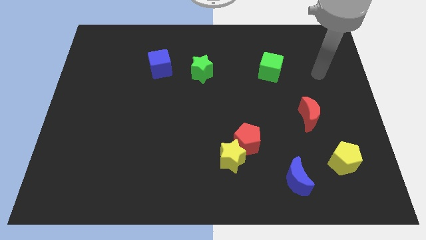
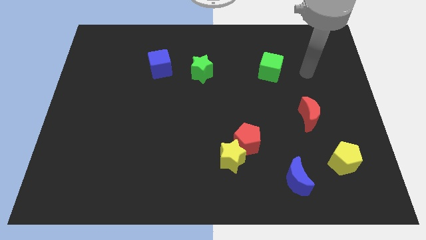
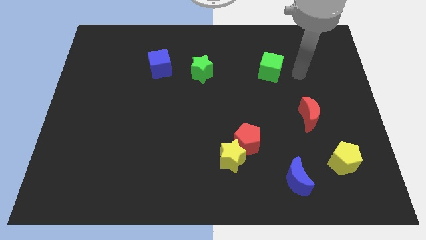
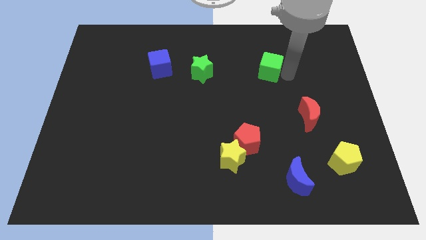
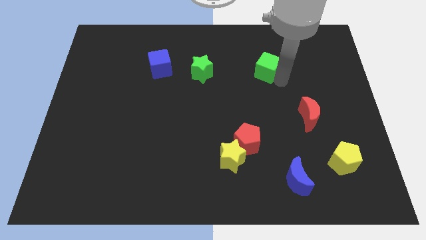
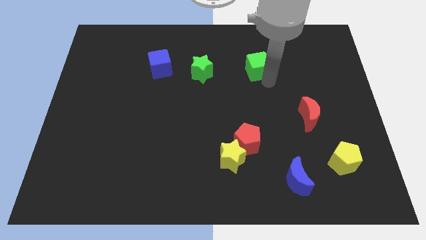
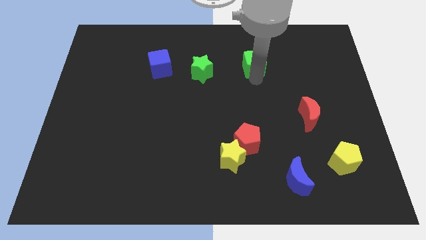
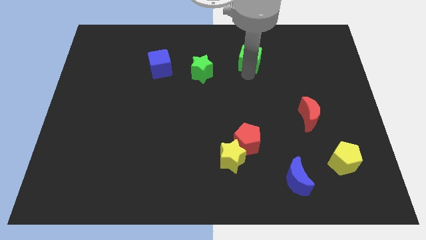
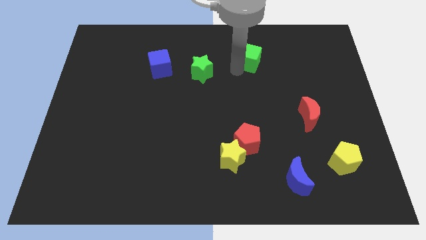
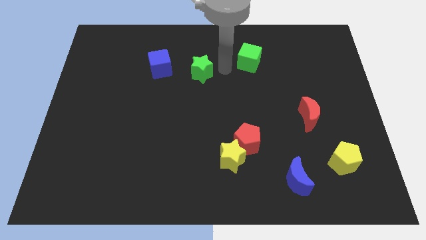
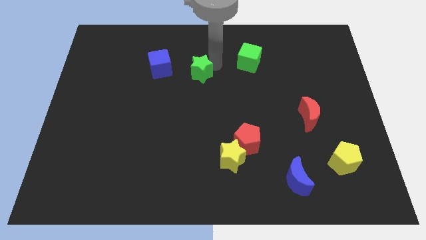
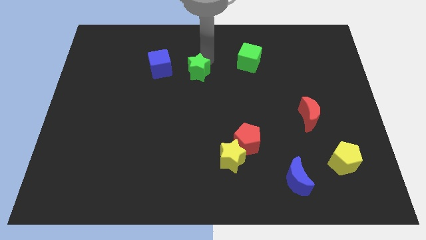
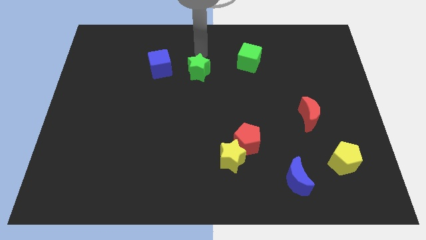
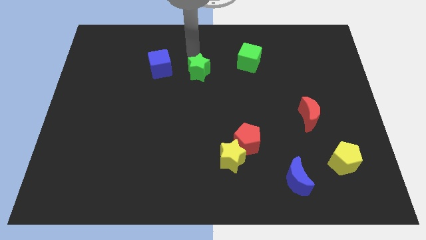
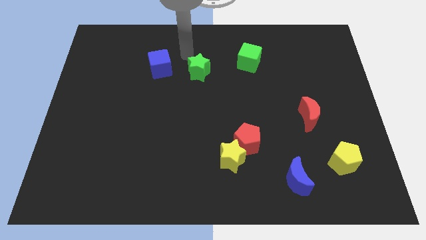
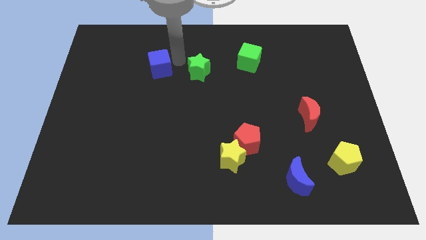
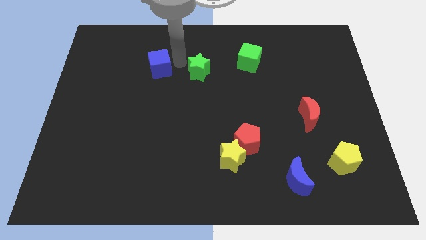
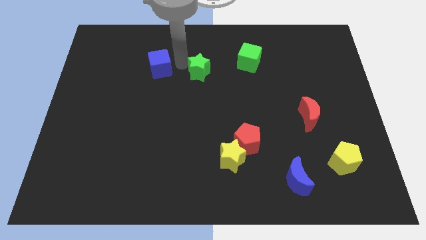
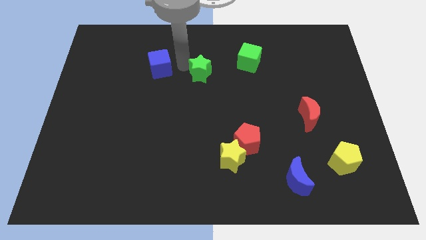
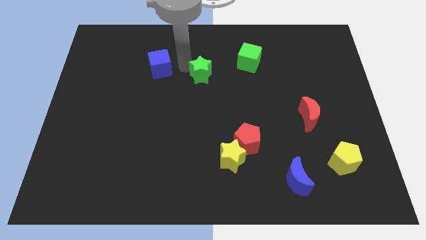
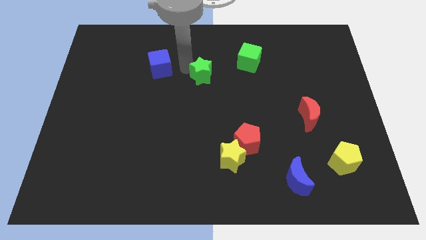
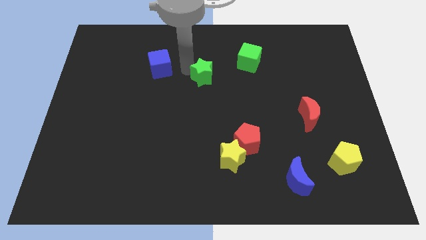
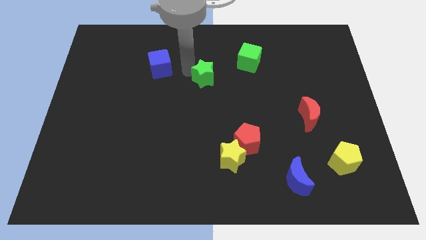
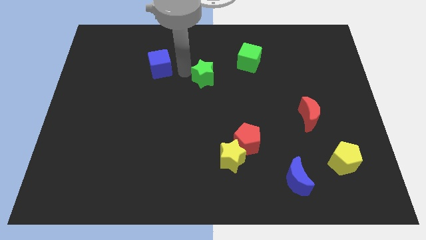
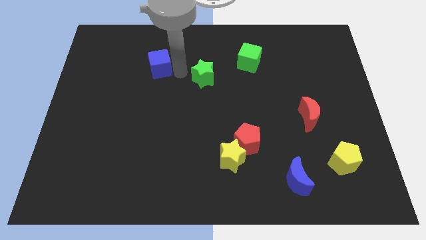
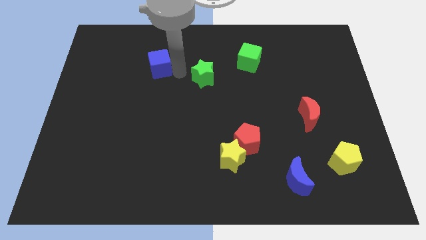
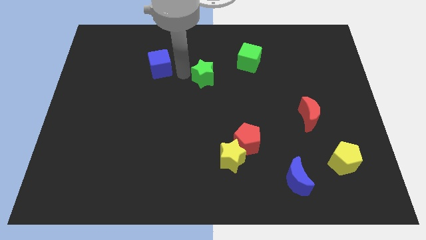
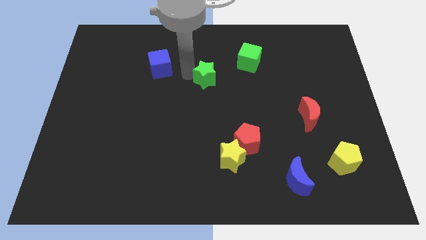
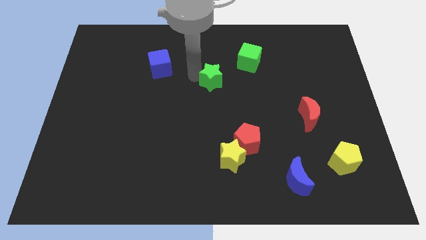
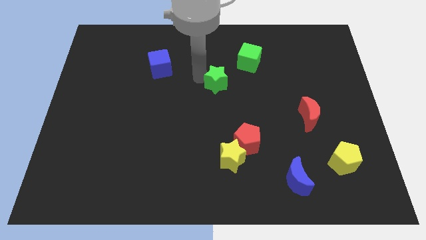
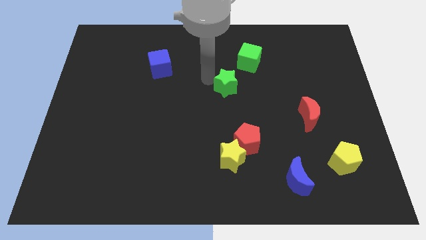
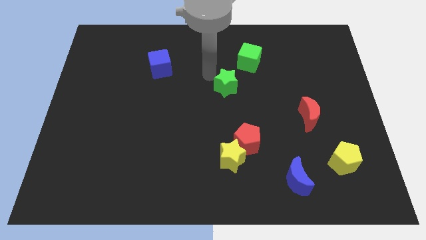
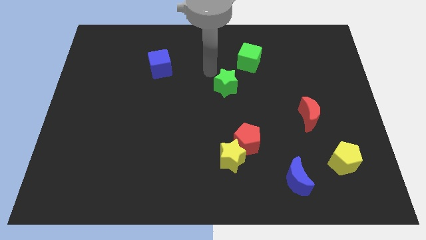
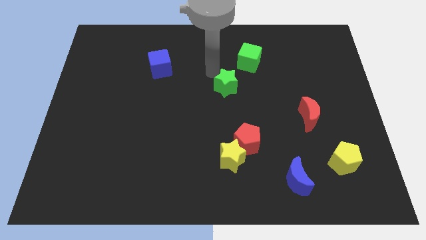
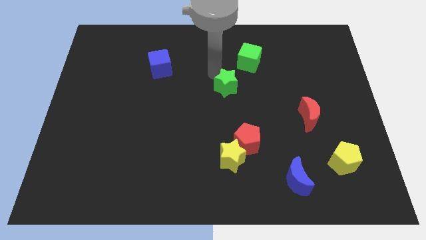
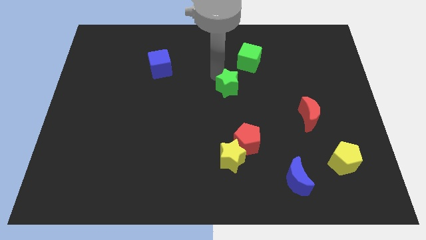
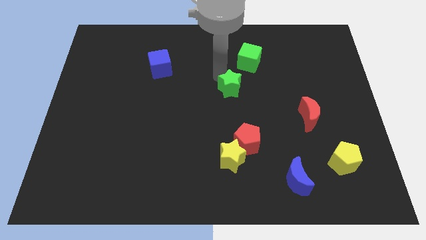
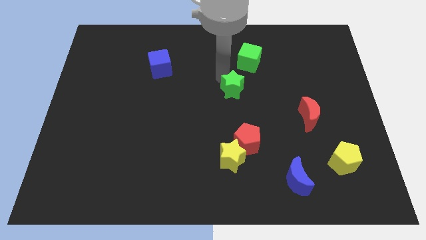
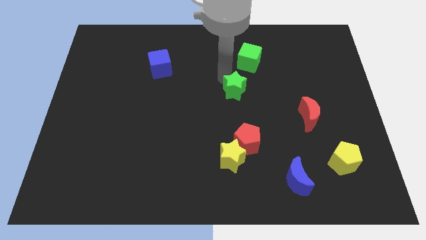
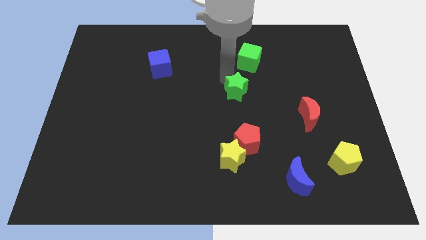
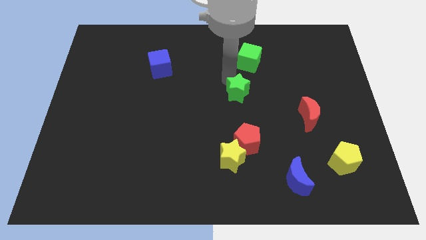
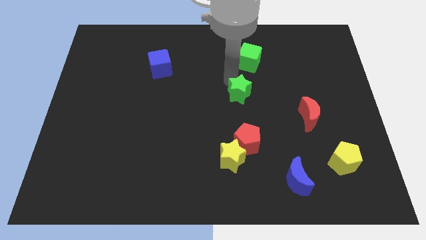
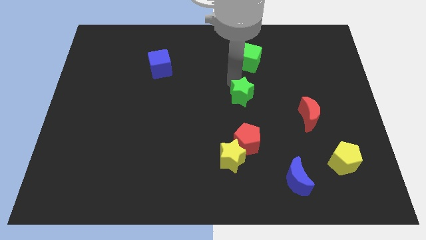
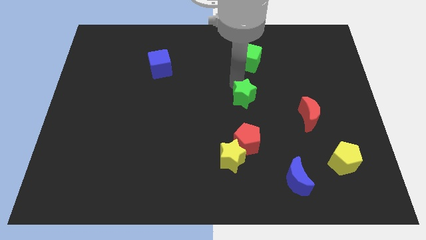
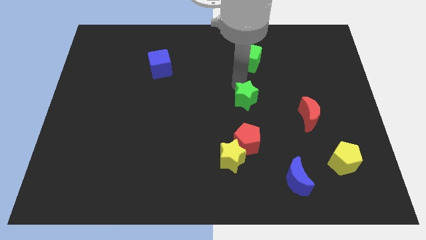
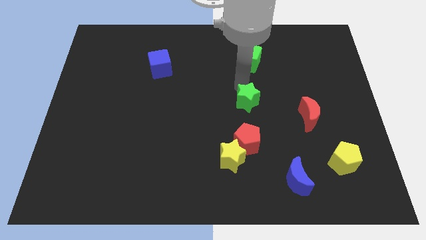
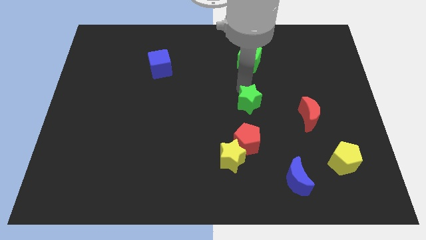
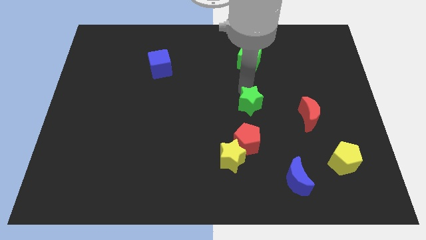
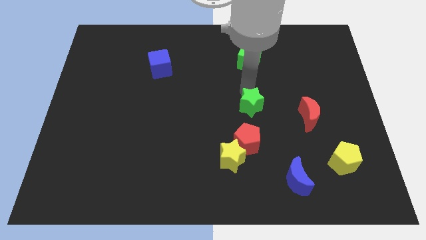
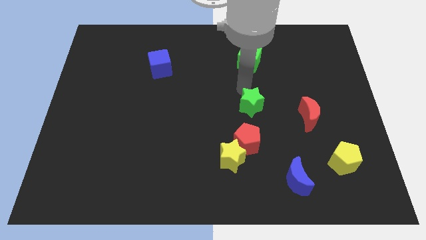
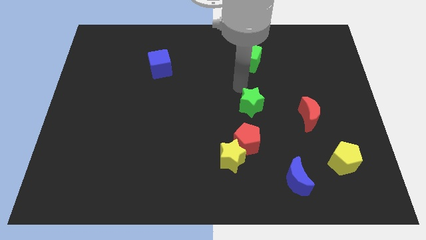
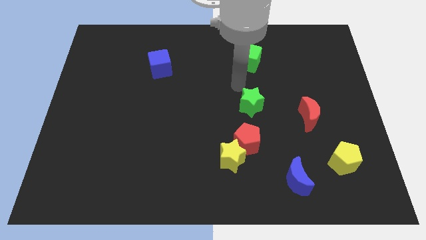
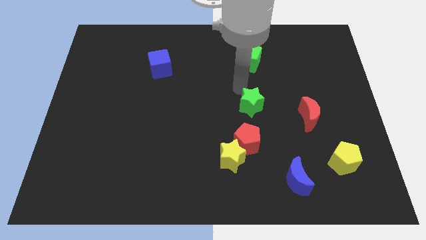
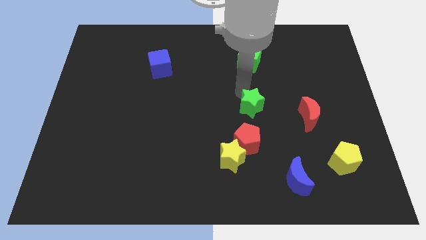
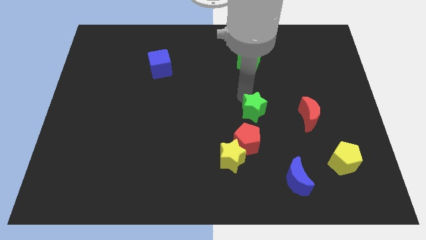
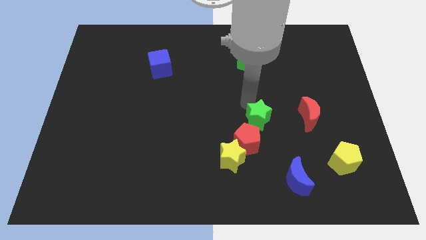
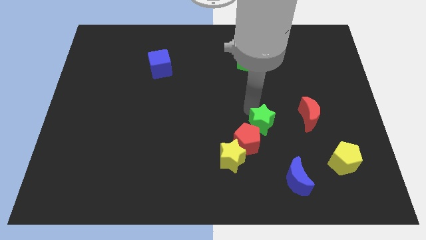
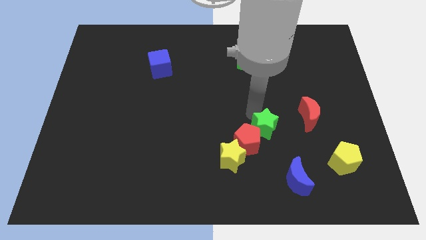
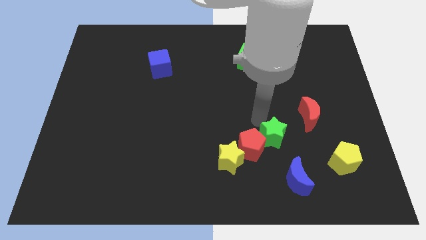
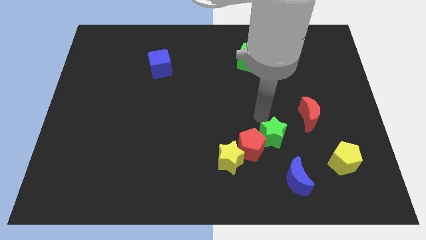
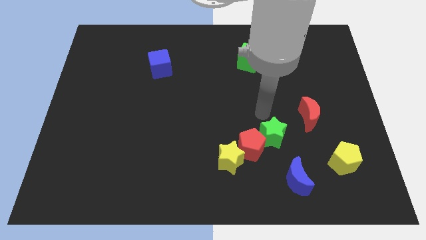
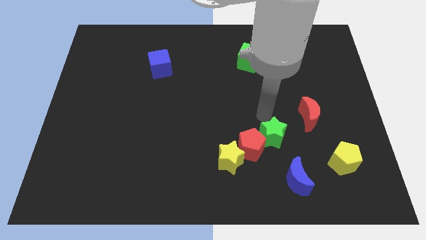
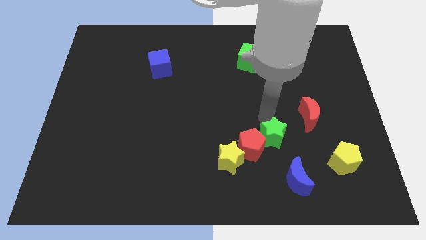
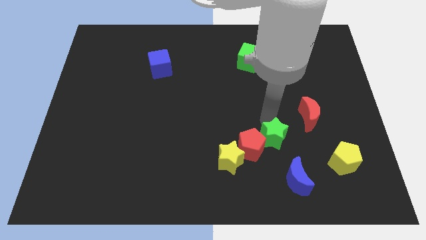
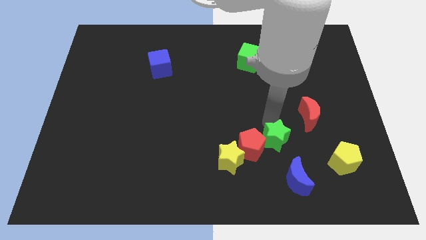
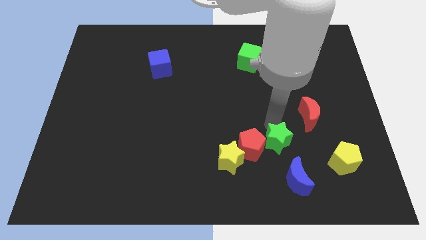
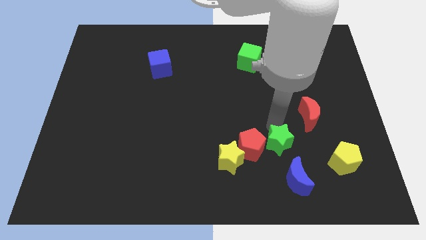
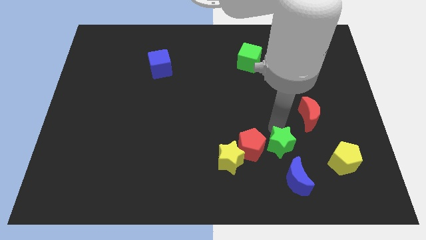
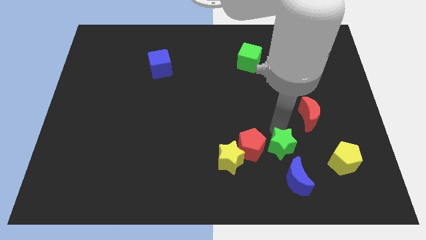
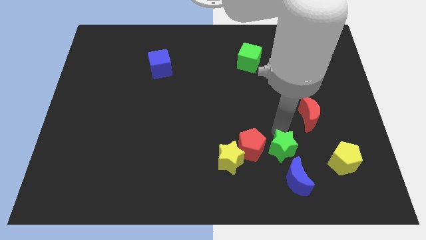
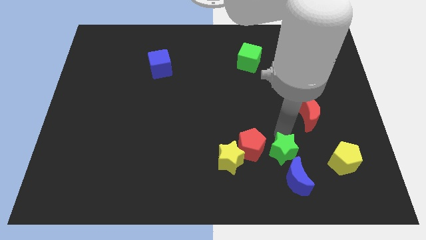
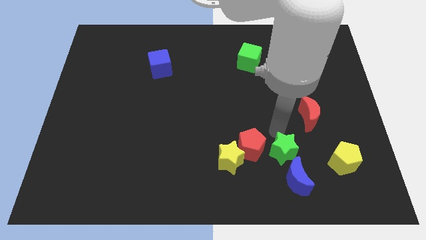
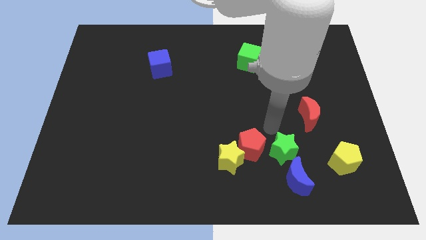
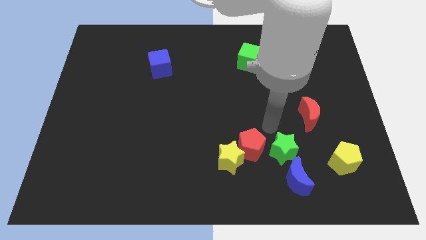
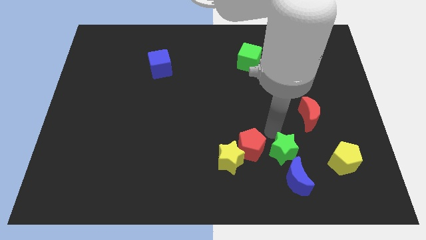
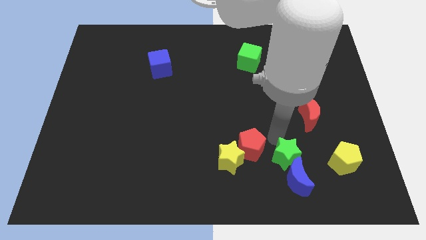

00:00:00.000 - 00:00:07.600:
slide the green star close to the blue moon

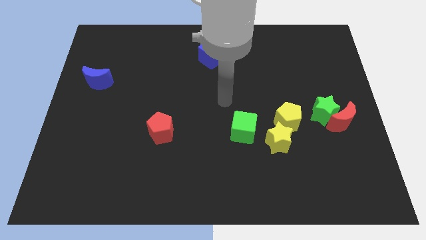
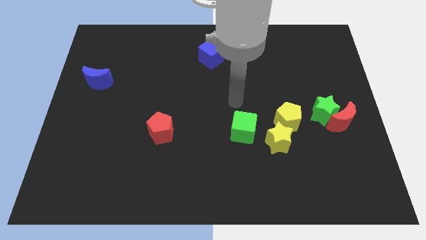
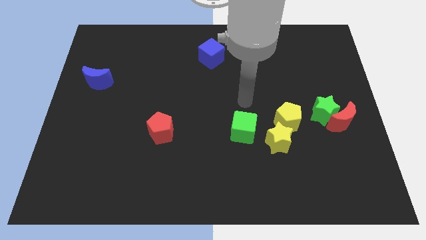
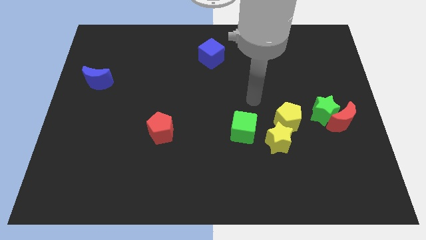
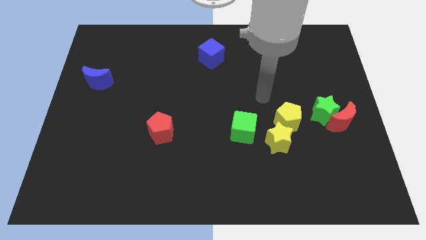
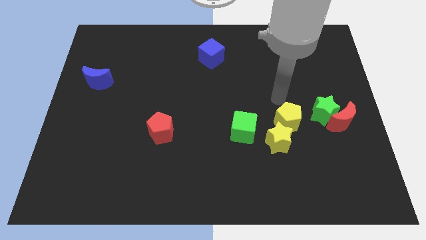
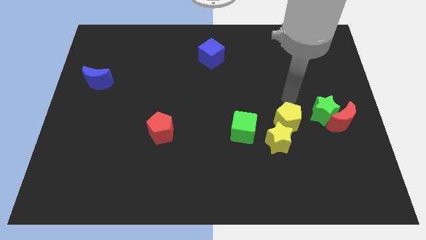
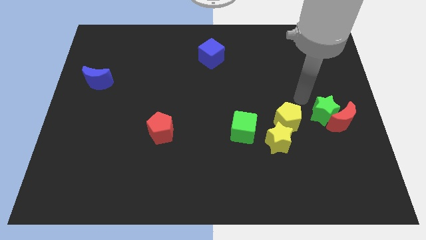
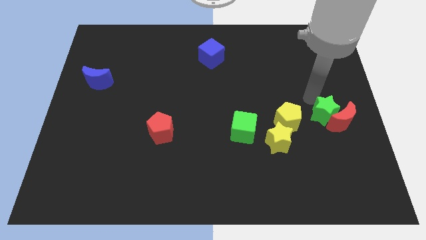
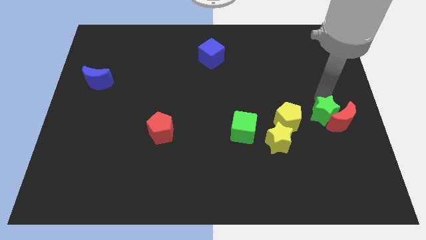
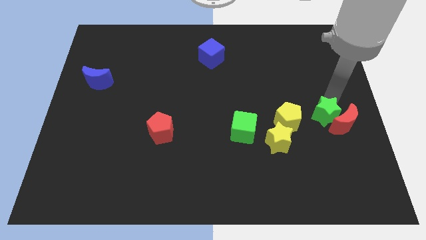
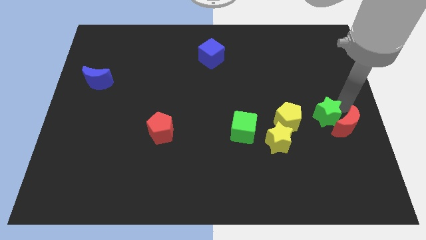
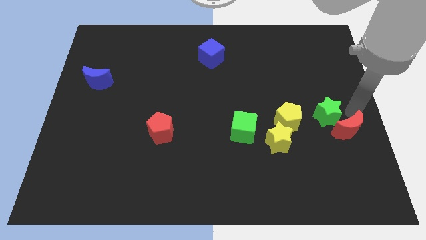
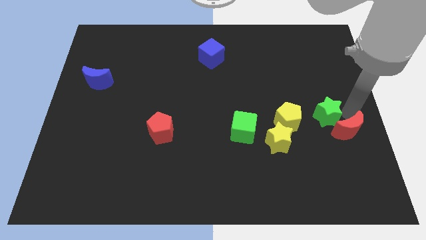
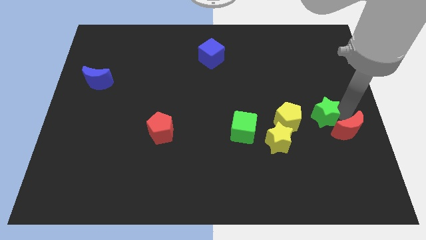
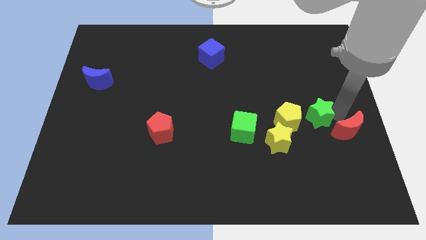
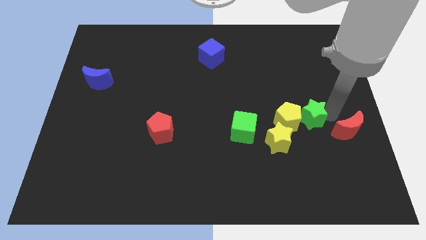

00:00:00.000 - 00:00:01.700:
put the green star next to the yellow pentagon
